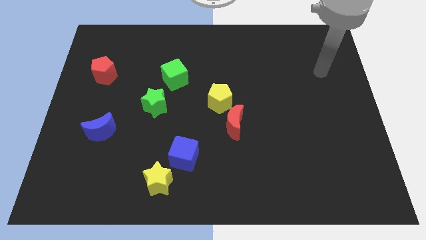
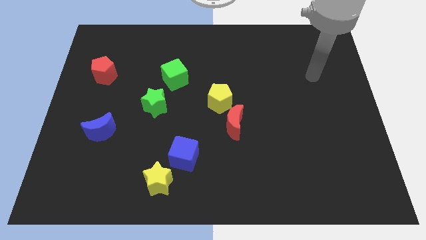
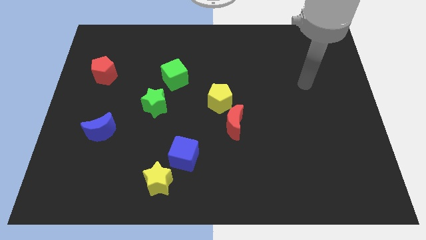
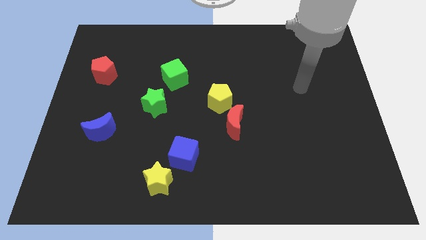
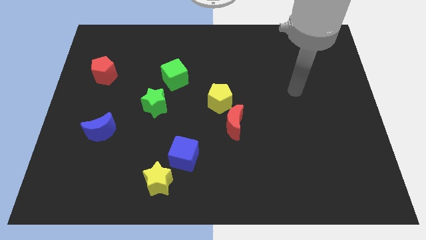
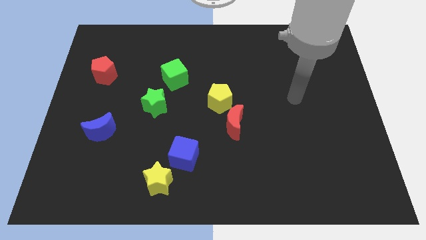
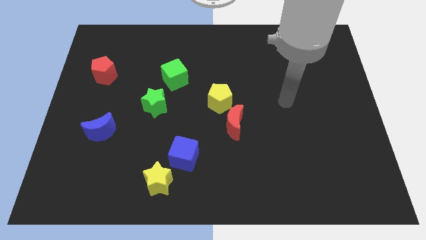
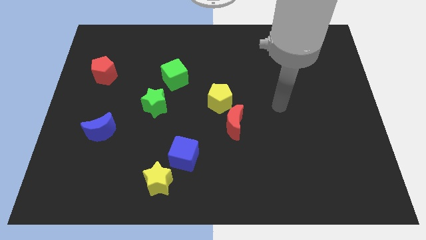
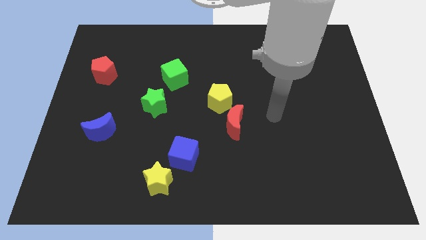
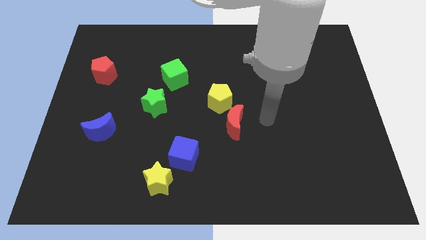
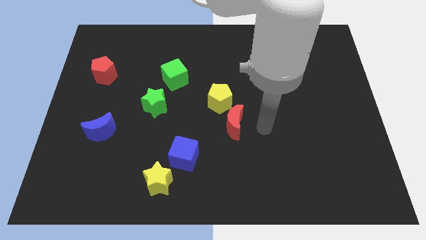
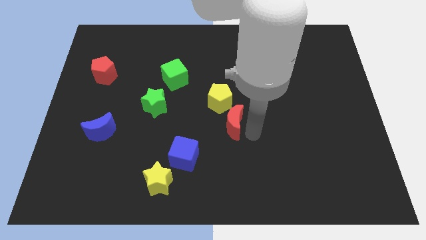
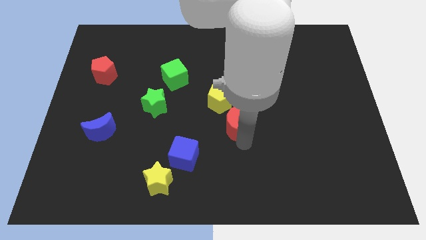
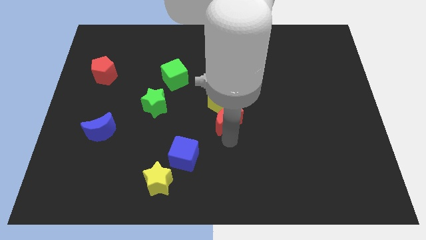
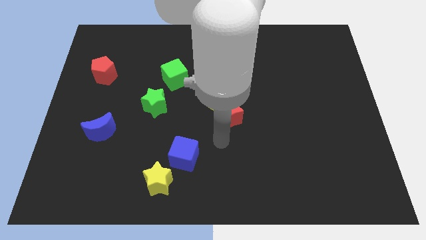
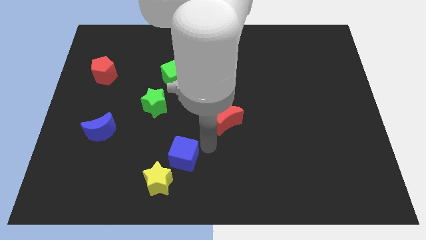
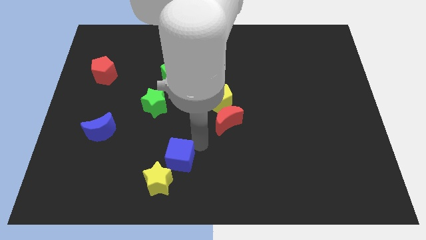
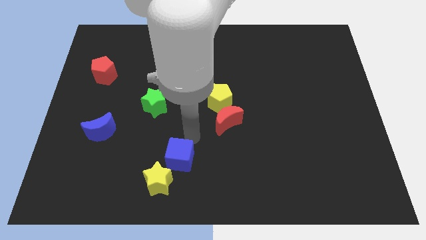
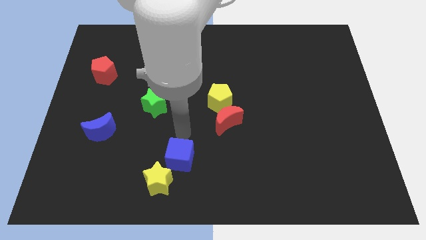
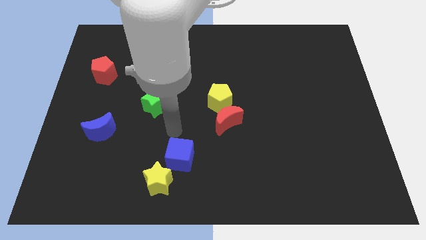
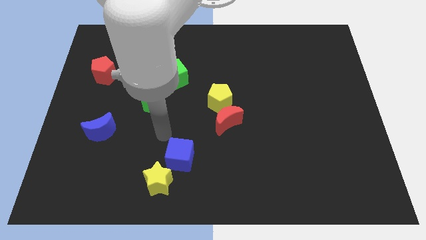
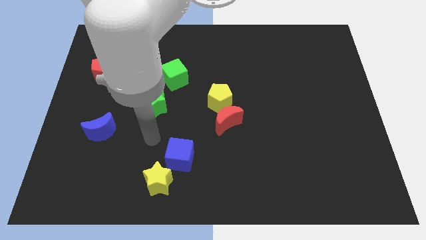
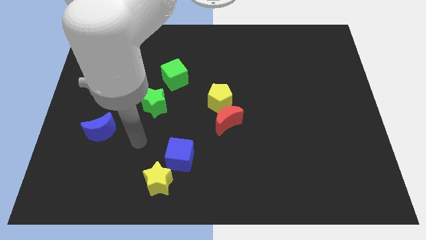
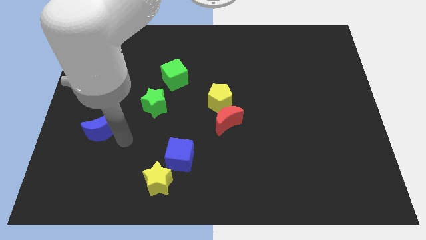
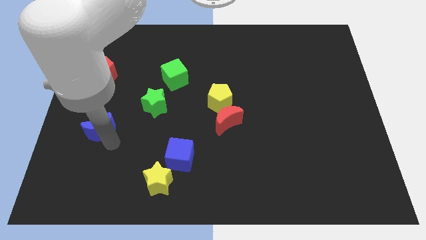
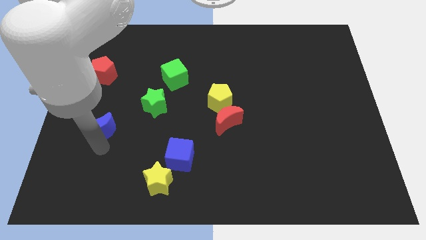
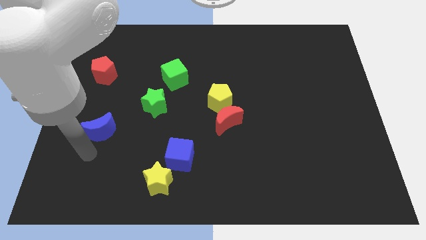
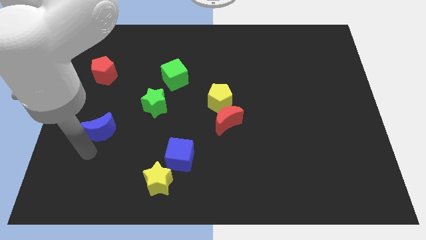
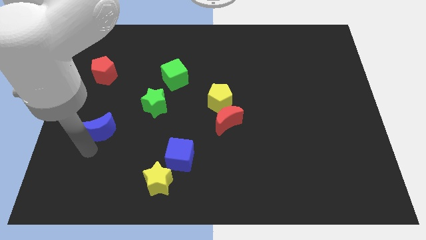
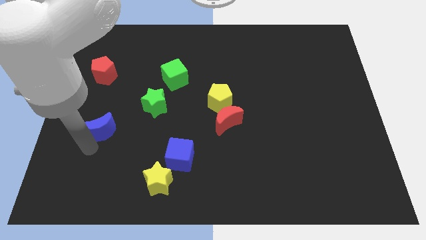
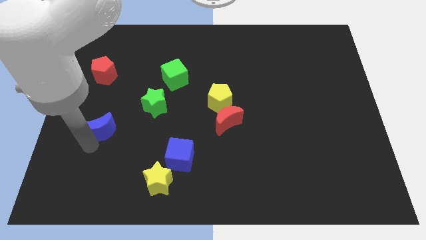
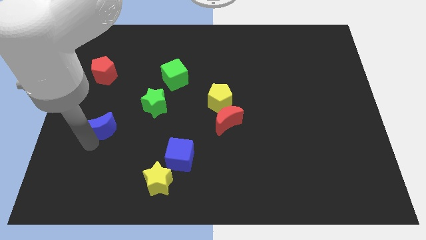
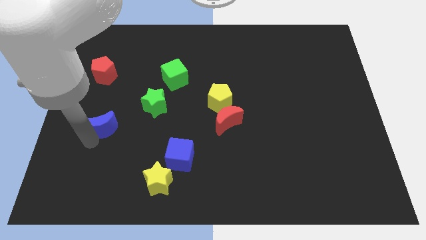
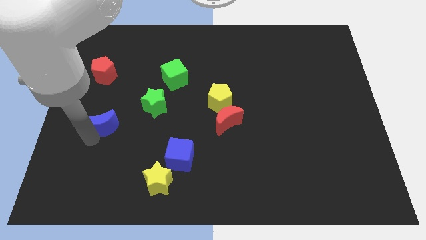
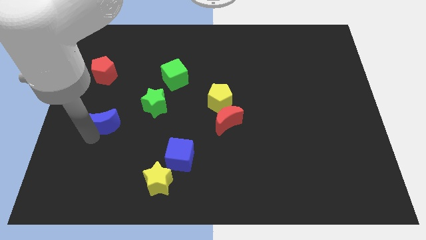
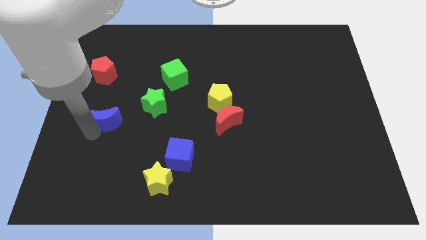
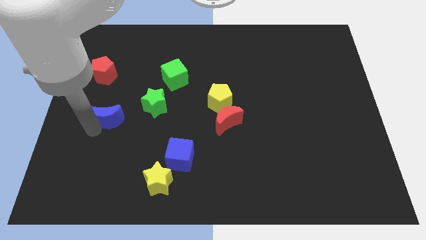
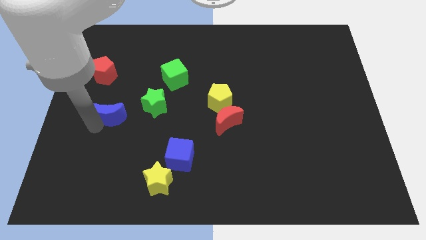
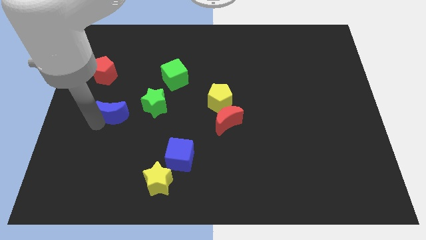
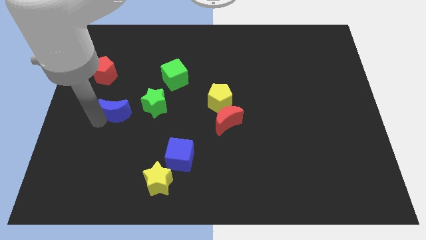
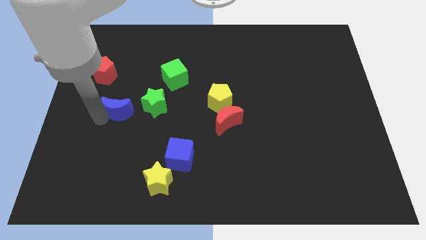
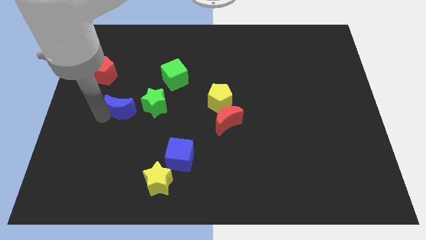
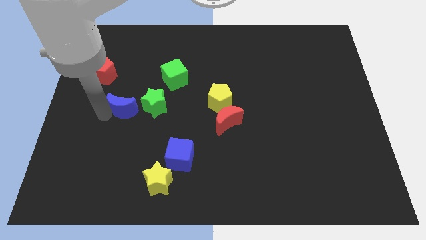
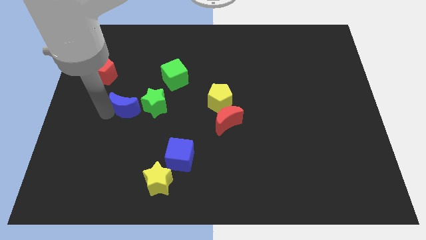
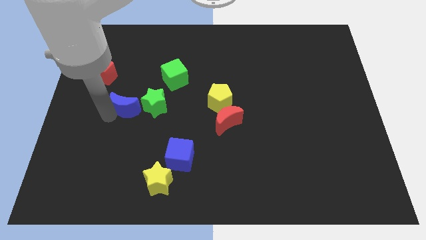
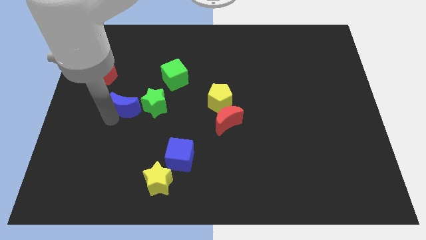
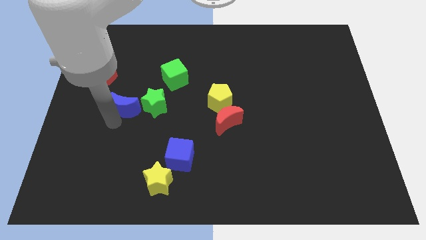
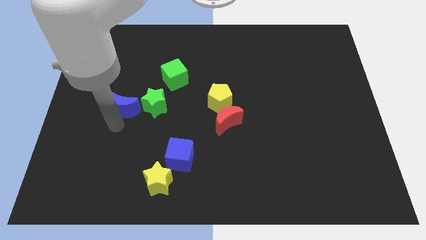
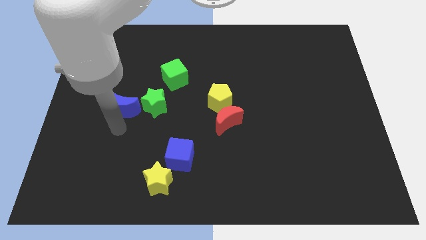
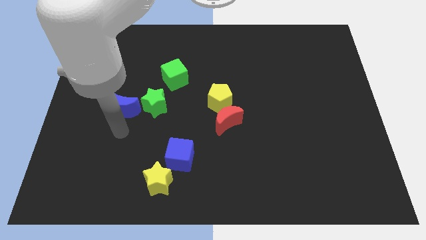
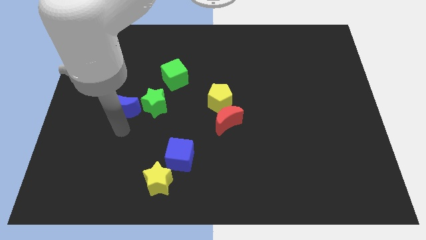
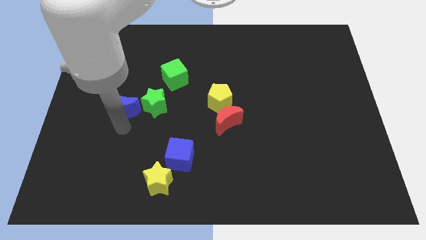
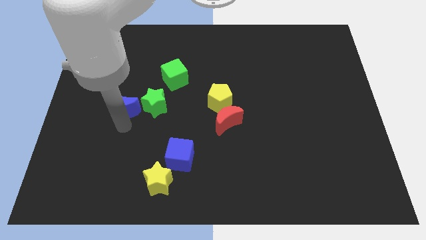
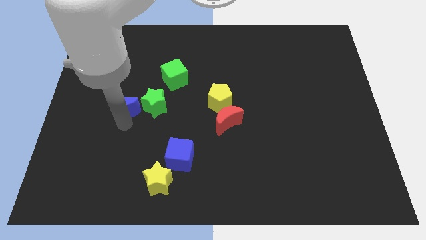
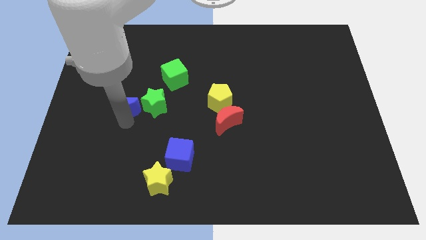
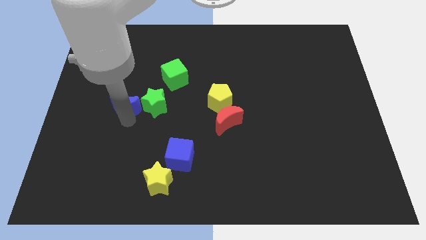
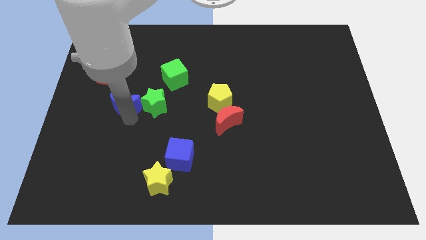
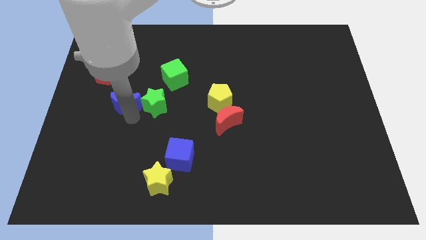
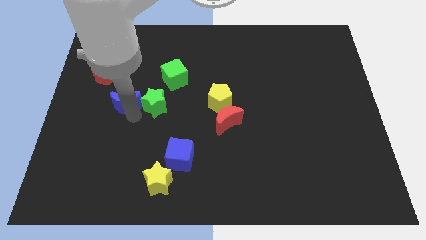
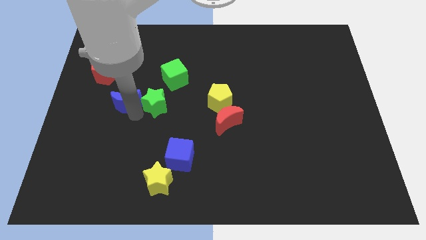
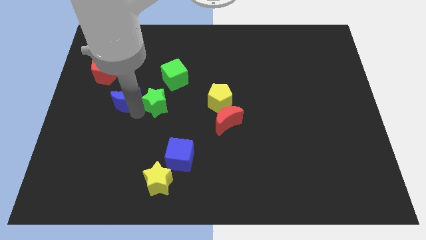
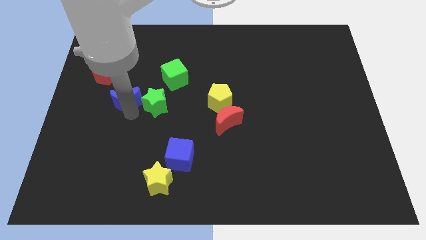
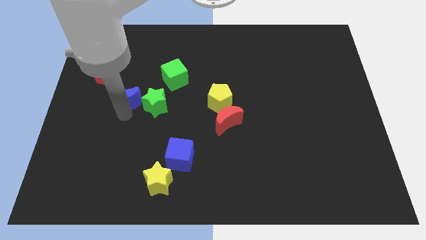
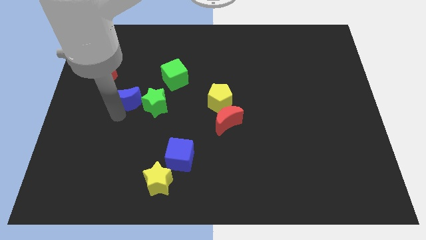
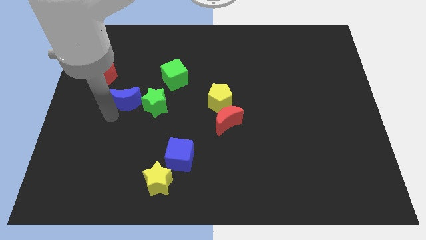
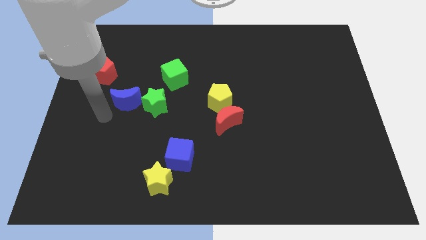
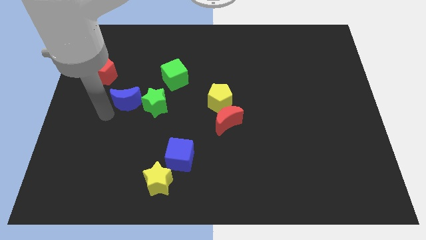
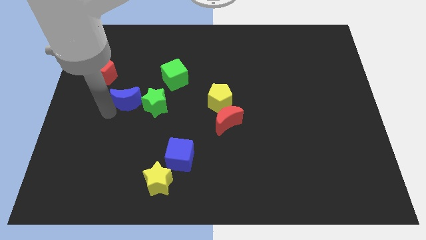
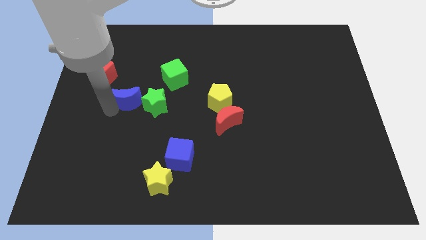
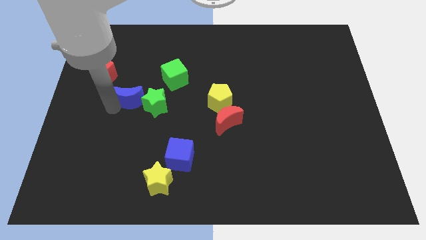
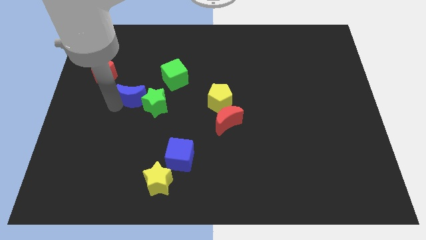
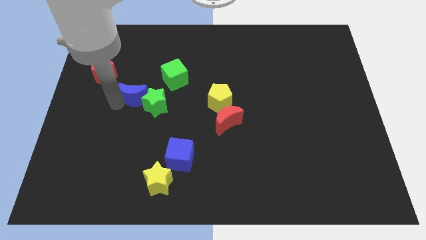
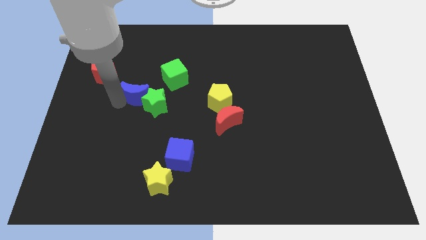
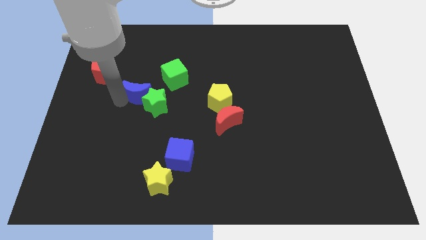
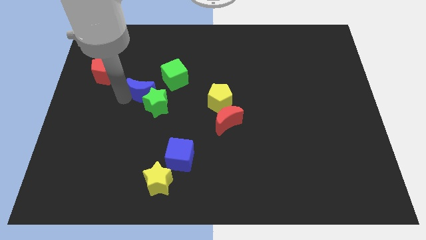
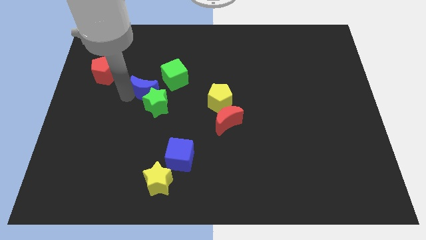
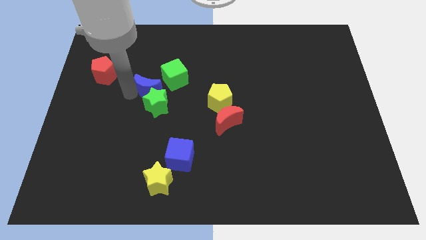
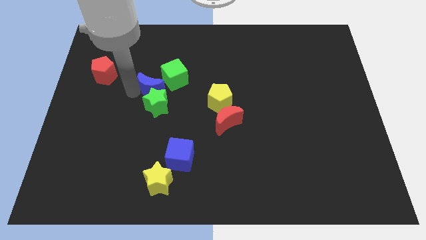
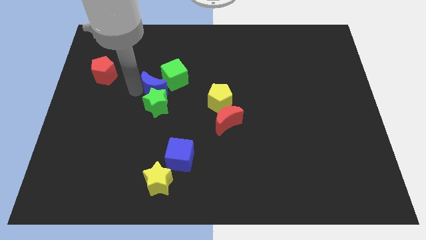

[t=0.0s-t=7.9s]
push the blue moon close to the green cube
